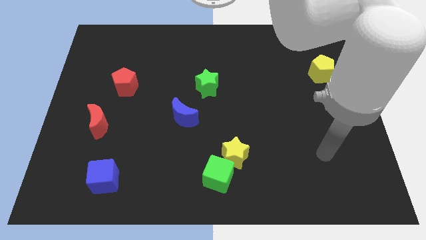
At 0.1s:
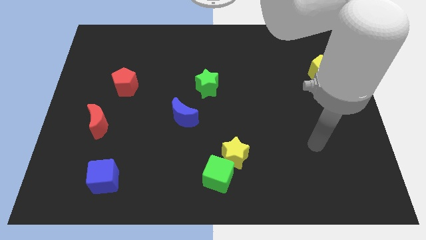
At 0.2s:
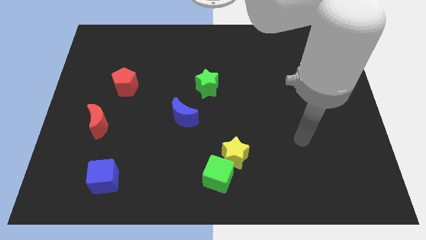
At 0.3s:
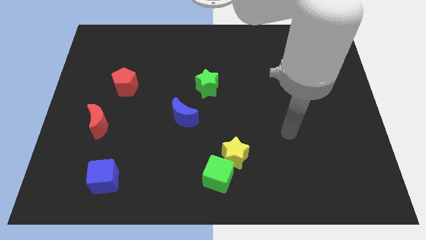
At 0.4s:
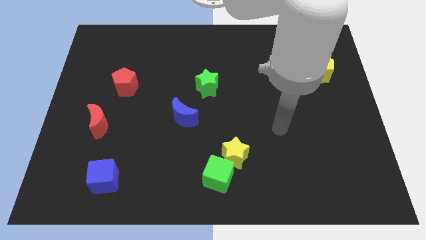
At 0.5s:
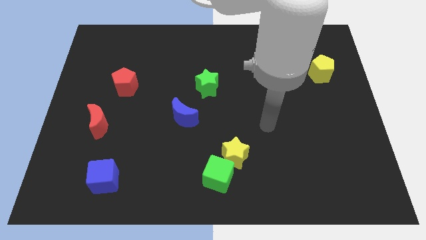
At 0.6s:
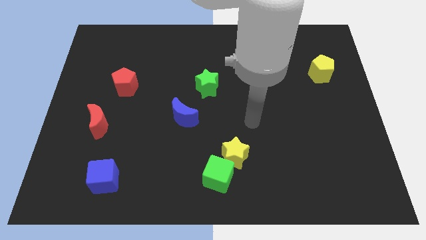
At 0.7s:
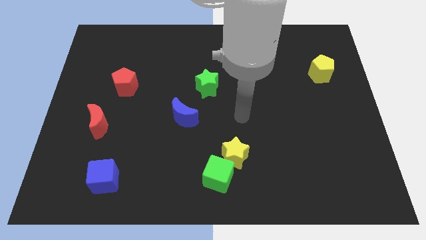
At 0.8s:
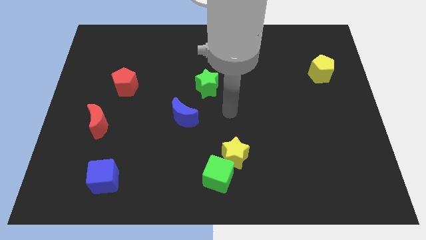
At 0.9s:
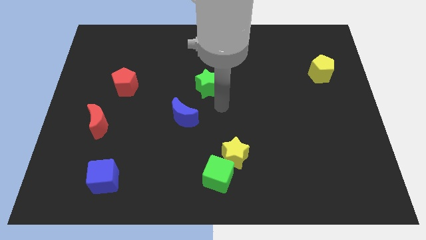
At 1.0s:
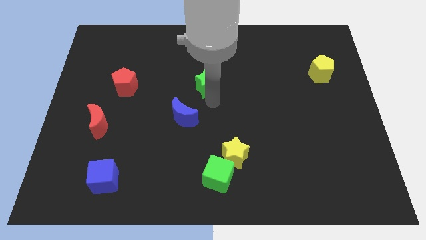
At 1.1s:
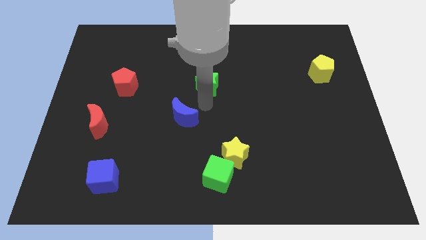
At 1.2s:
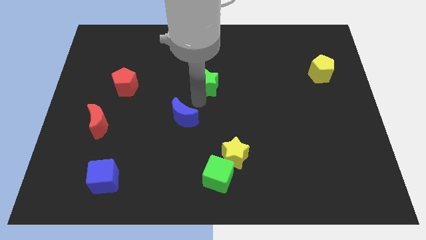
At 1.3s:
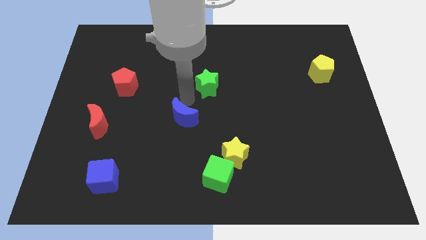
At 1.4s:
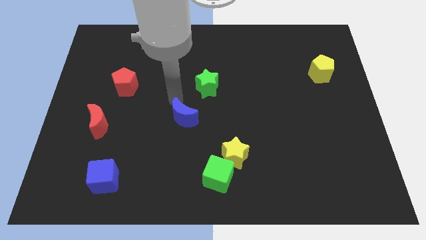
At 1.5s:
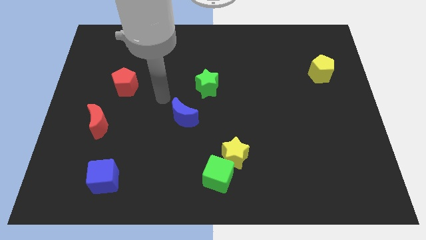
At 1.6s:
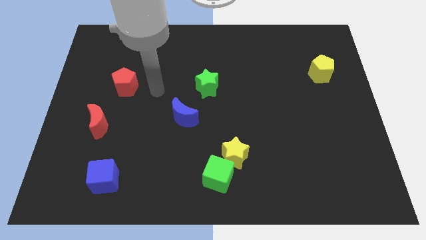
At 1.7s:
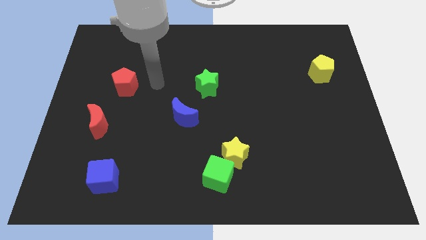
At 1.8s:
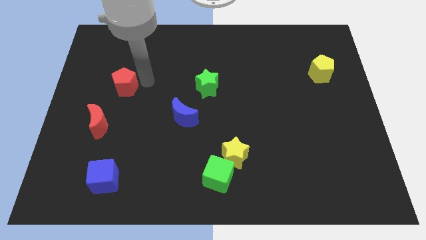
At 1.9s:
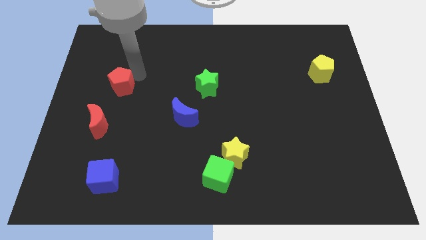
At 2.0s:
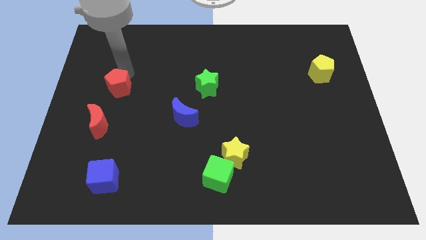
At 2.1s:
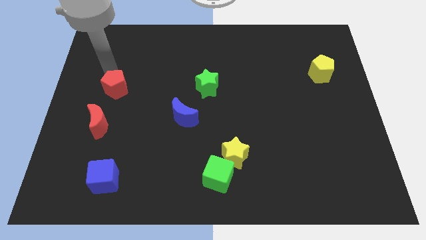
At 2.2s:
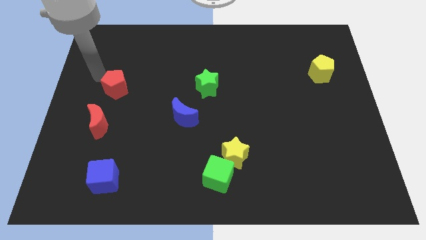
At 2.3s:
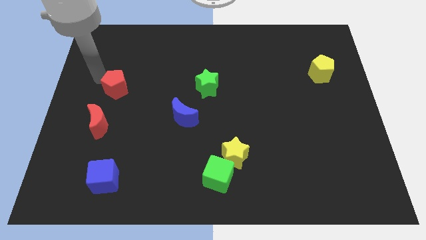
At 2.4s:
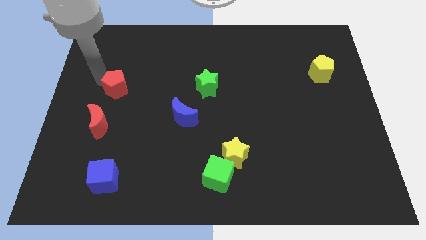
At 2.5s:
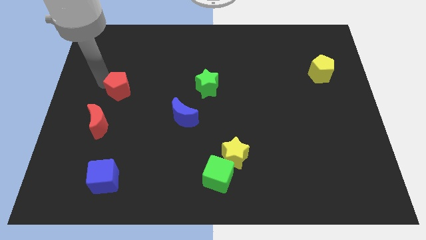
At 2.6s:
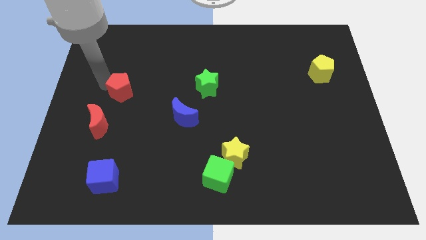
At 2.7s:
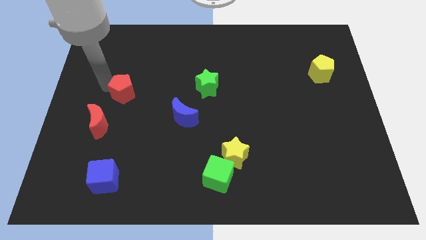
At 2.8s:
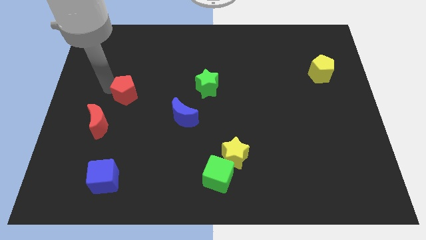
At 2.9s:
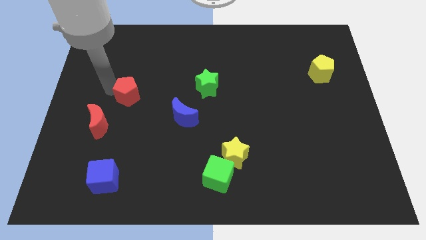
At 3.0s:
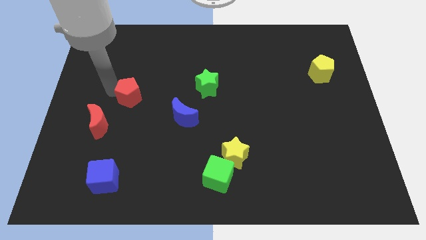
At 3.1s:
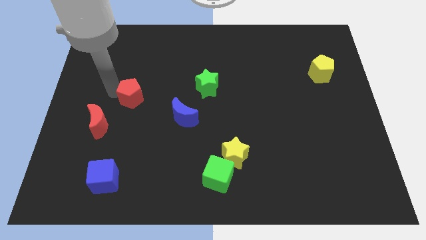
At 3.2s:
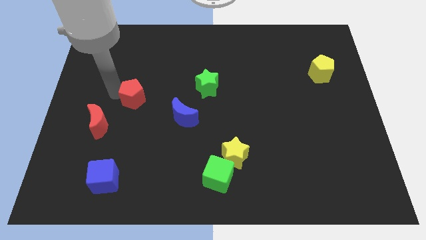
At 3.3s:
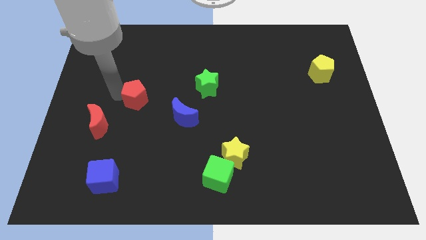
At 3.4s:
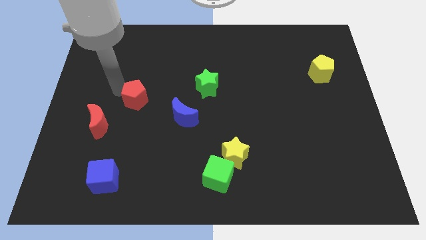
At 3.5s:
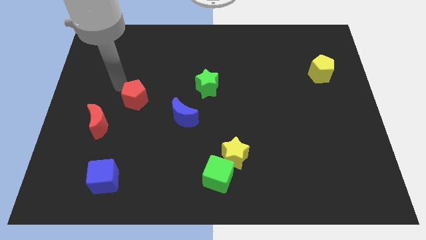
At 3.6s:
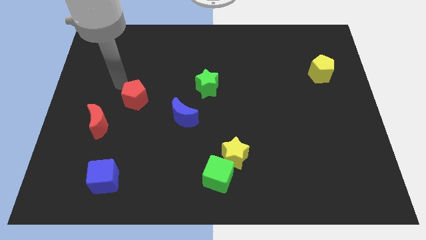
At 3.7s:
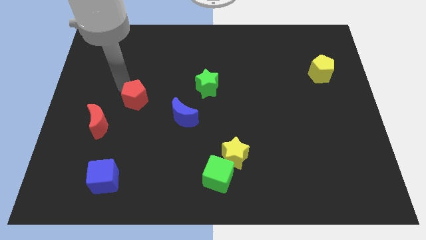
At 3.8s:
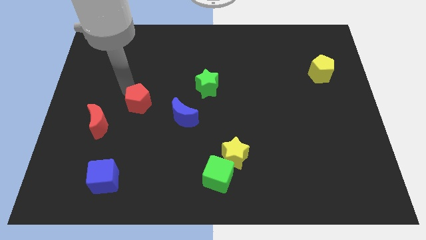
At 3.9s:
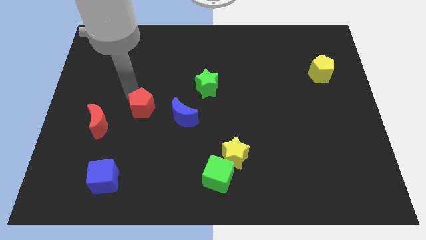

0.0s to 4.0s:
move the red pentagon down and then right a little

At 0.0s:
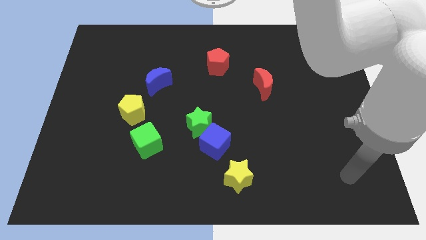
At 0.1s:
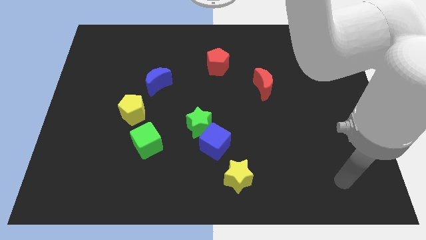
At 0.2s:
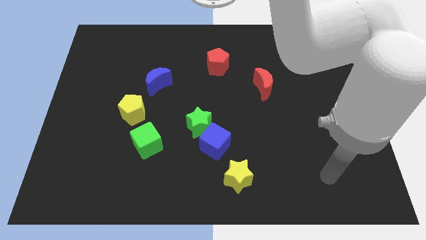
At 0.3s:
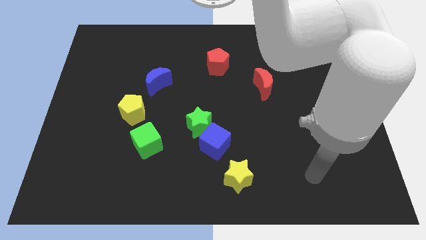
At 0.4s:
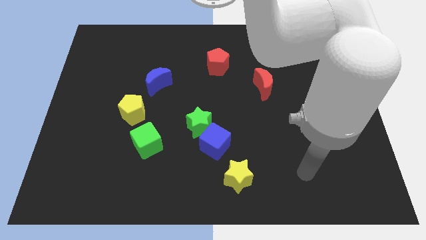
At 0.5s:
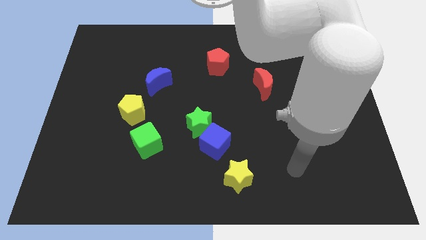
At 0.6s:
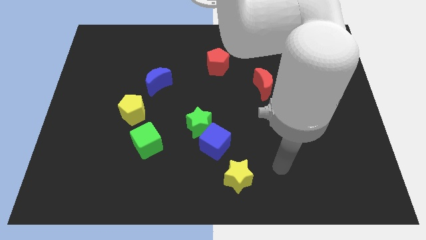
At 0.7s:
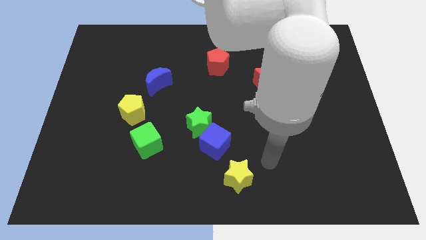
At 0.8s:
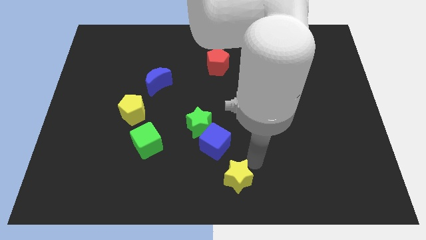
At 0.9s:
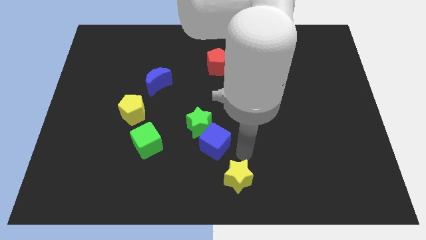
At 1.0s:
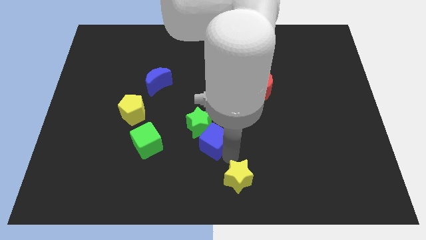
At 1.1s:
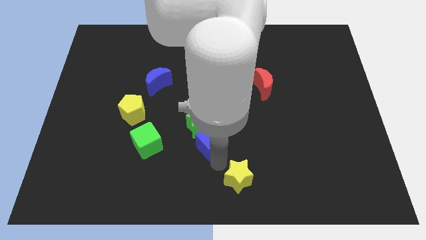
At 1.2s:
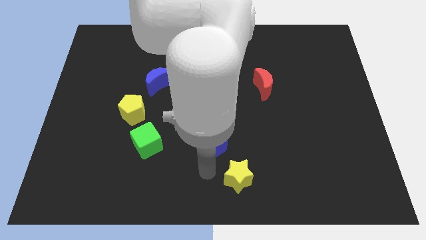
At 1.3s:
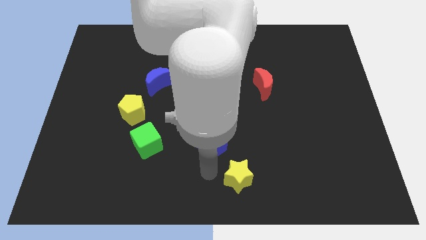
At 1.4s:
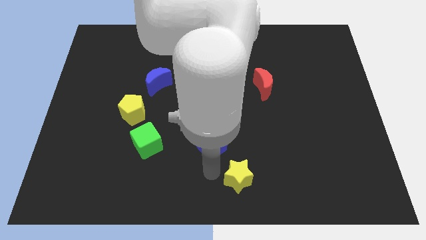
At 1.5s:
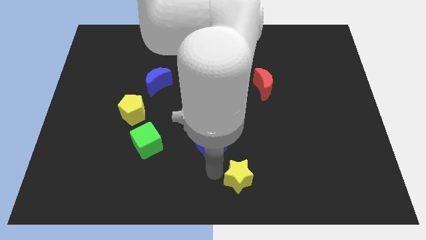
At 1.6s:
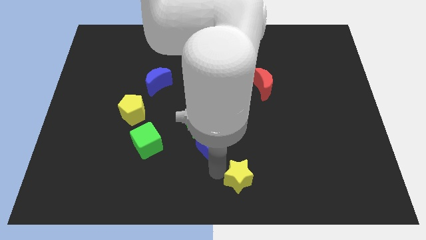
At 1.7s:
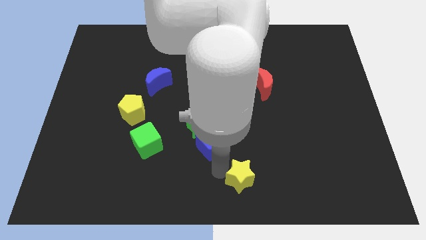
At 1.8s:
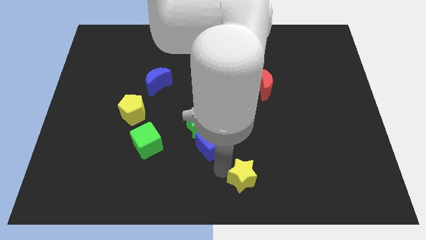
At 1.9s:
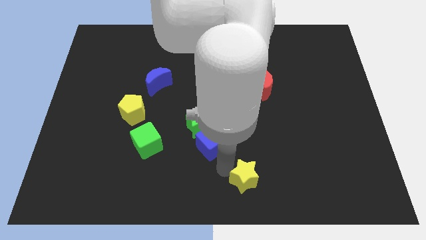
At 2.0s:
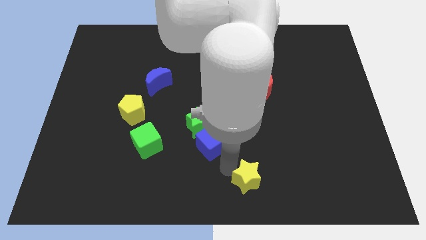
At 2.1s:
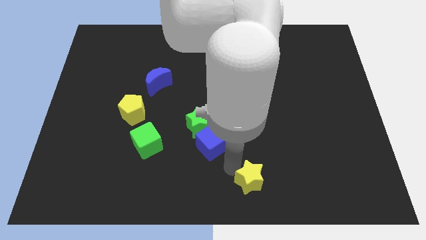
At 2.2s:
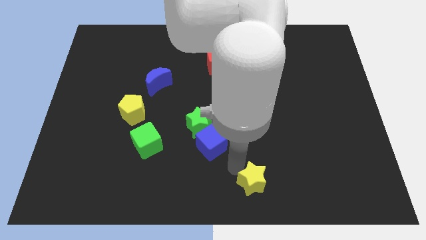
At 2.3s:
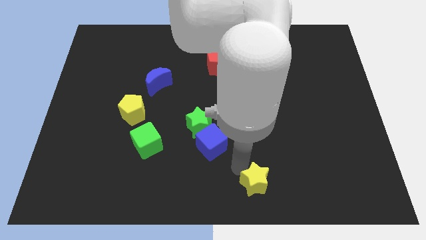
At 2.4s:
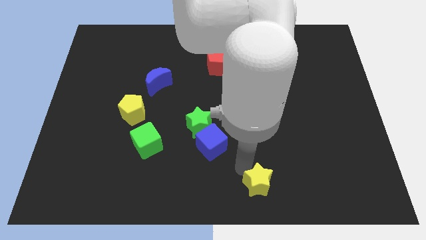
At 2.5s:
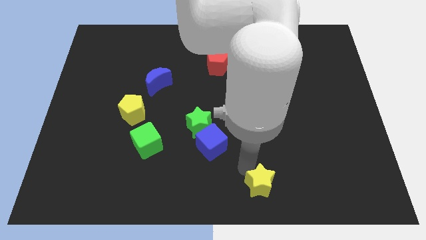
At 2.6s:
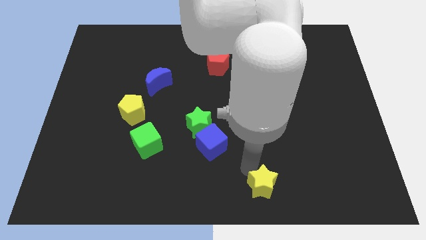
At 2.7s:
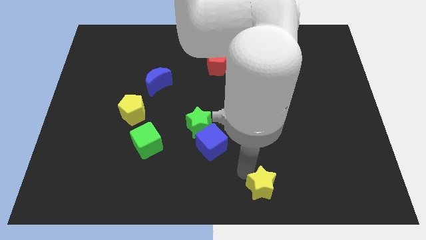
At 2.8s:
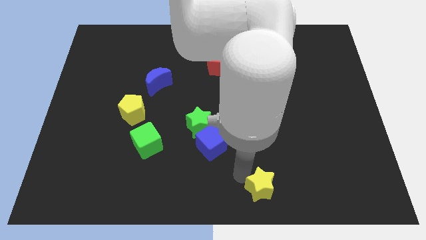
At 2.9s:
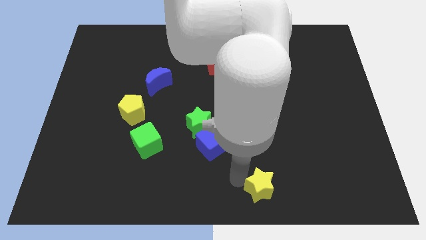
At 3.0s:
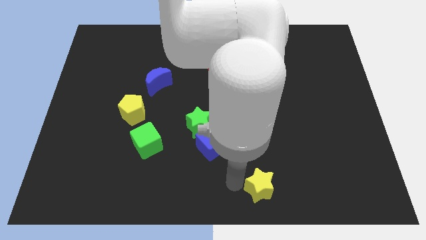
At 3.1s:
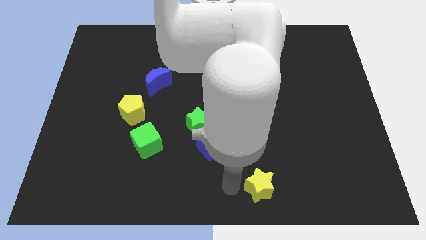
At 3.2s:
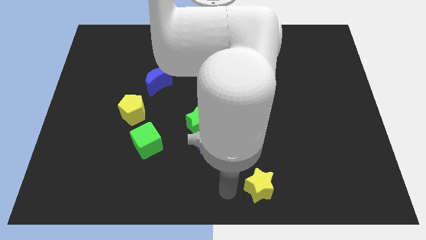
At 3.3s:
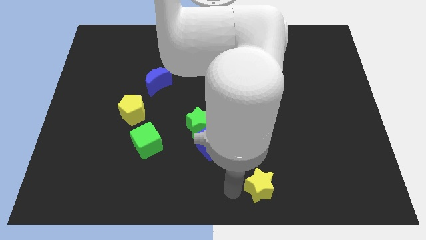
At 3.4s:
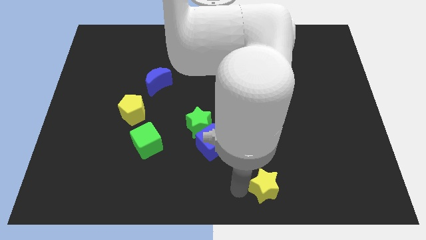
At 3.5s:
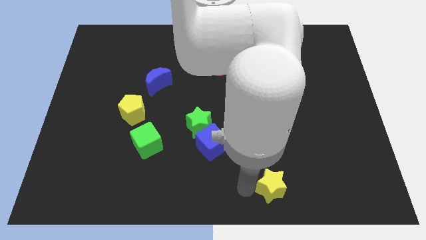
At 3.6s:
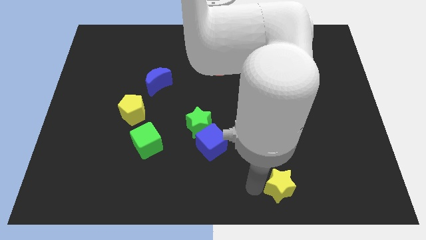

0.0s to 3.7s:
slightly slide the yellow star to the right

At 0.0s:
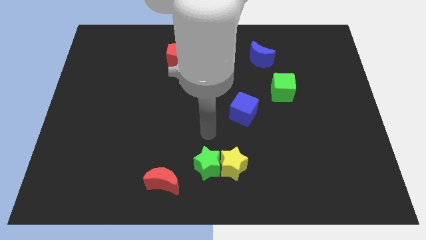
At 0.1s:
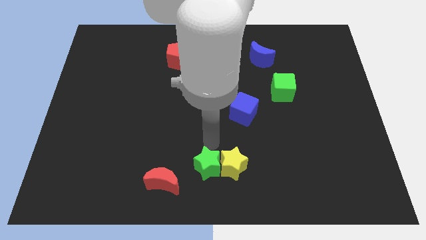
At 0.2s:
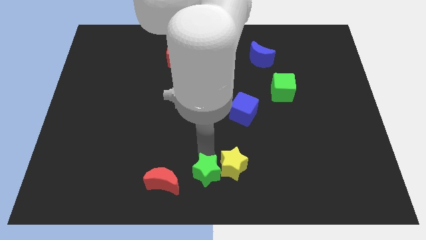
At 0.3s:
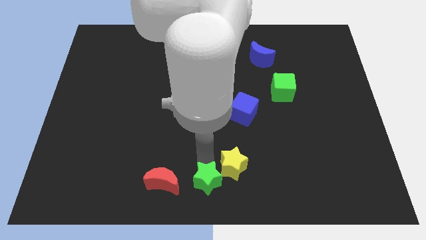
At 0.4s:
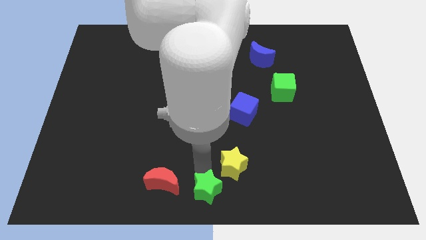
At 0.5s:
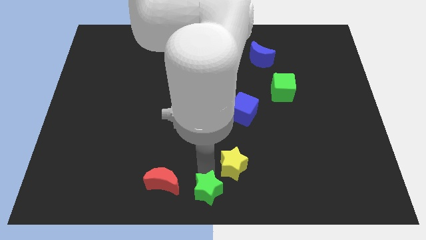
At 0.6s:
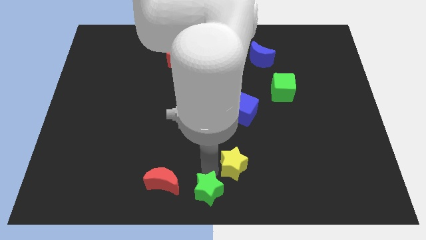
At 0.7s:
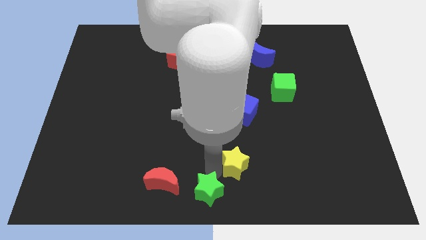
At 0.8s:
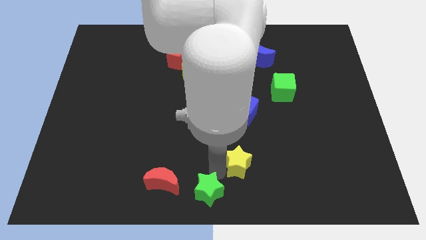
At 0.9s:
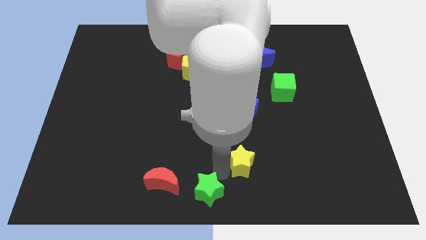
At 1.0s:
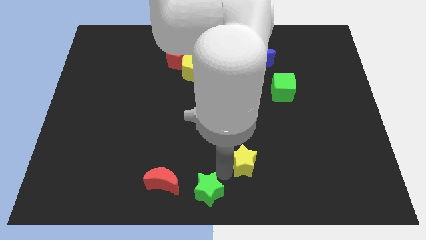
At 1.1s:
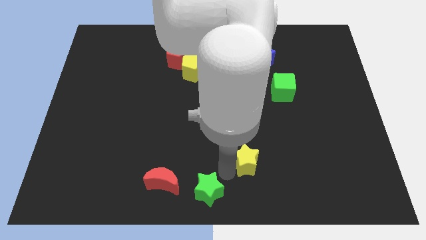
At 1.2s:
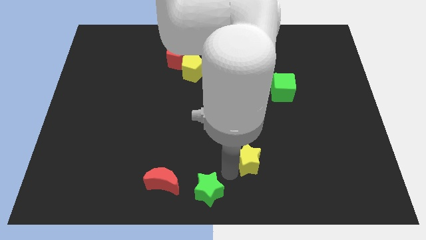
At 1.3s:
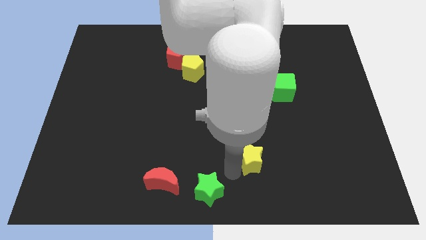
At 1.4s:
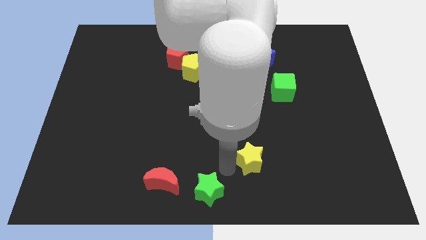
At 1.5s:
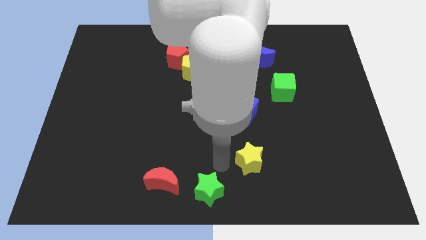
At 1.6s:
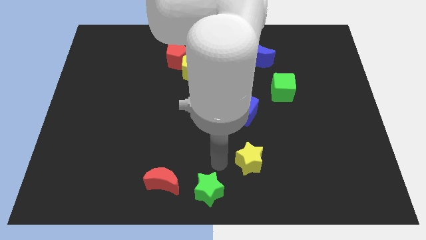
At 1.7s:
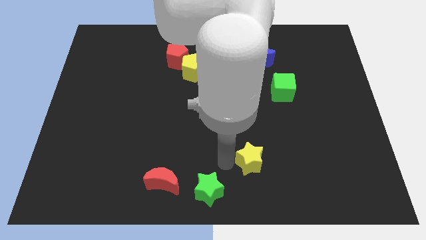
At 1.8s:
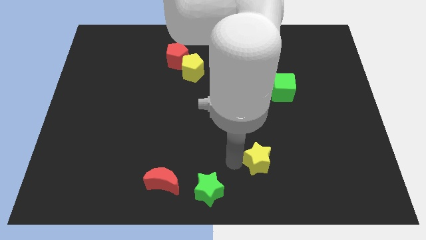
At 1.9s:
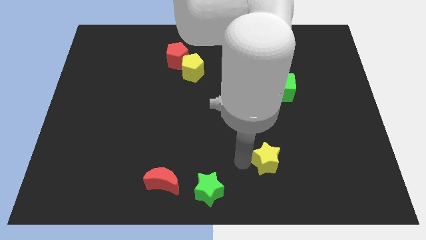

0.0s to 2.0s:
slide the yellow star slightly right
